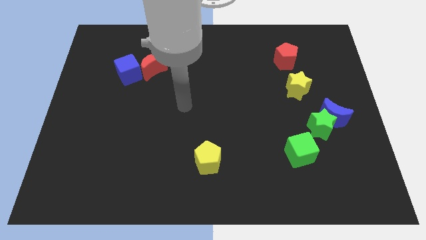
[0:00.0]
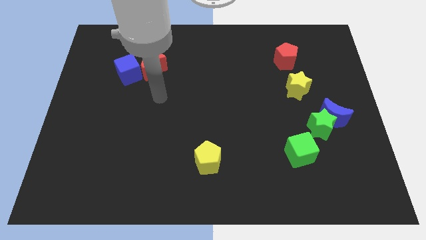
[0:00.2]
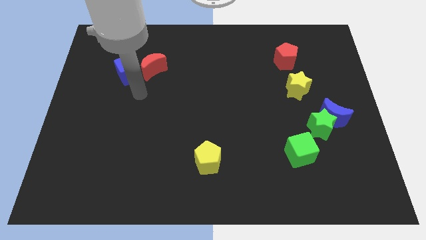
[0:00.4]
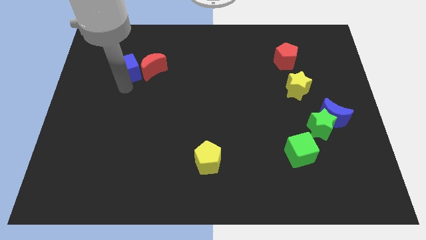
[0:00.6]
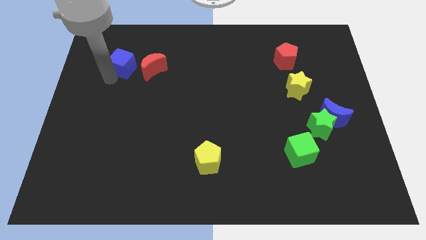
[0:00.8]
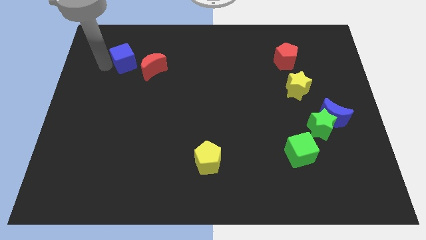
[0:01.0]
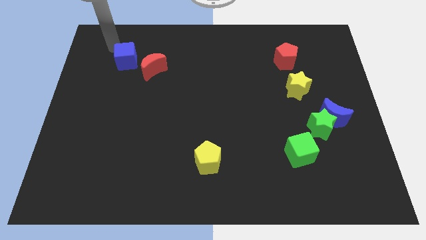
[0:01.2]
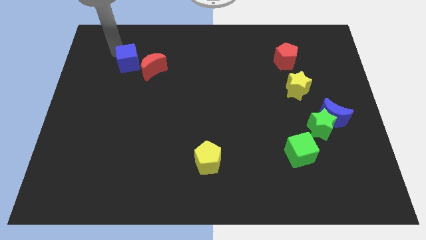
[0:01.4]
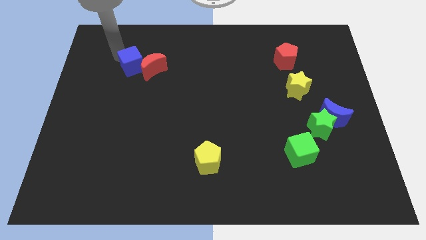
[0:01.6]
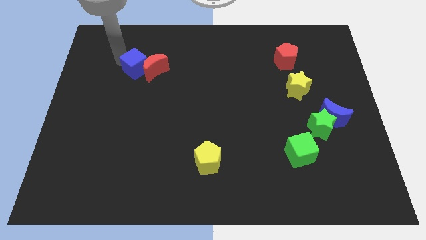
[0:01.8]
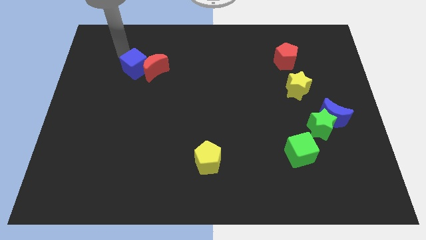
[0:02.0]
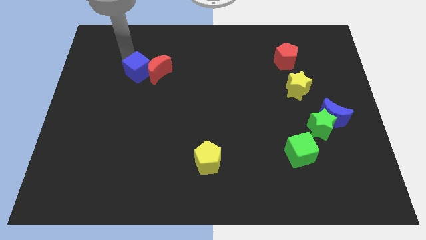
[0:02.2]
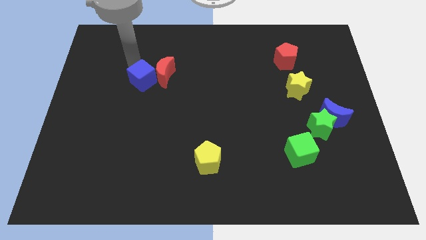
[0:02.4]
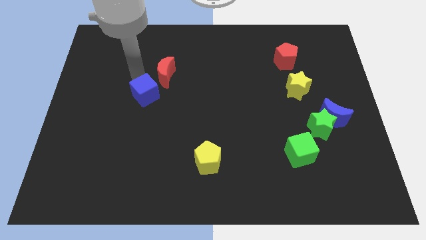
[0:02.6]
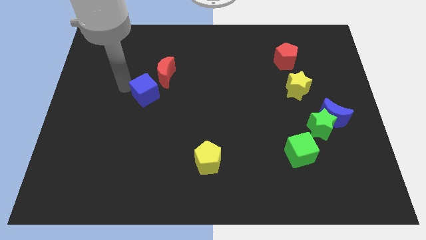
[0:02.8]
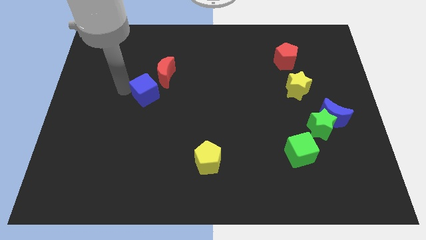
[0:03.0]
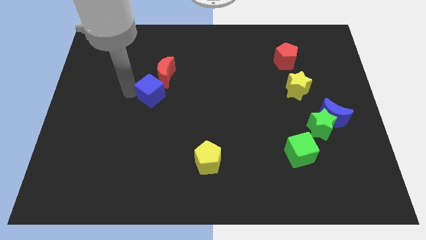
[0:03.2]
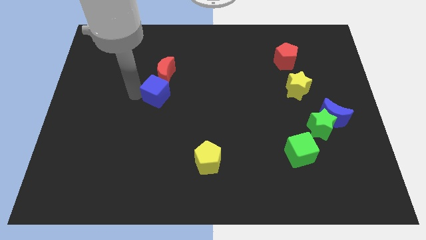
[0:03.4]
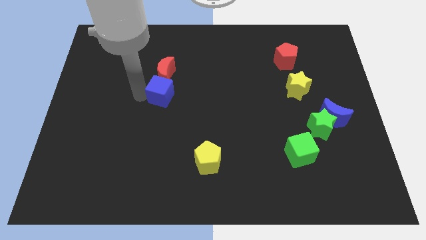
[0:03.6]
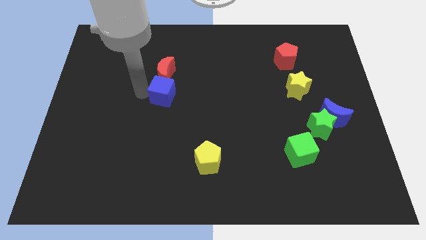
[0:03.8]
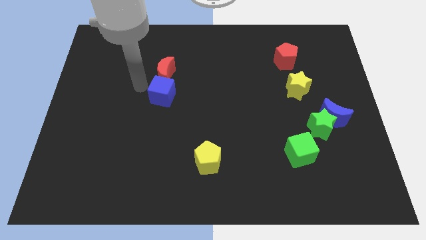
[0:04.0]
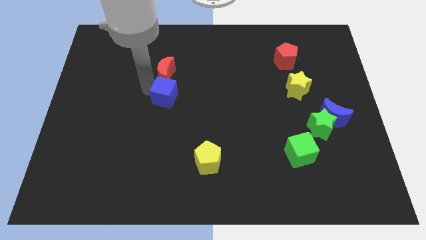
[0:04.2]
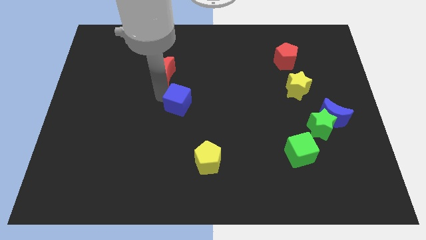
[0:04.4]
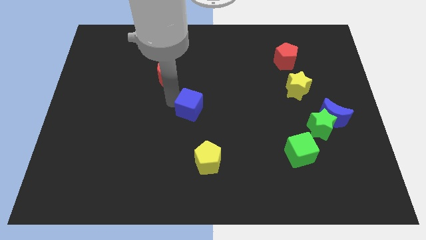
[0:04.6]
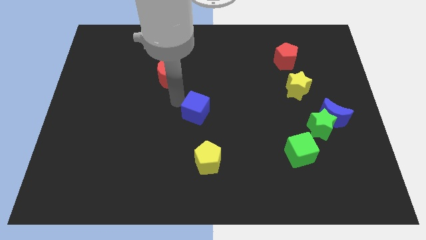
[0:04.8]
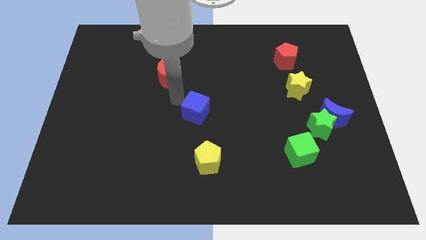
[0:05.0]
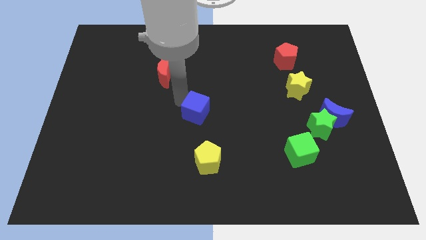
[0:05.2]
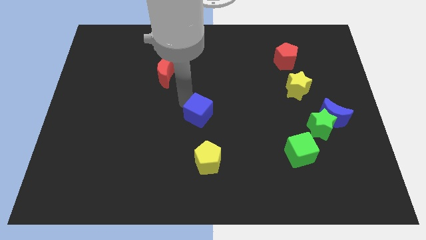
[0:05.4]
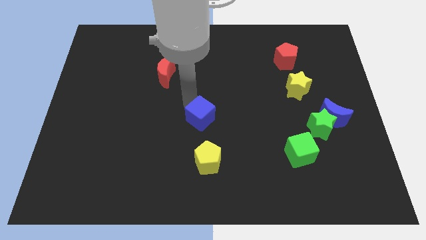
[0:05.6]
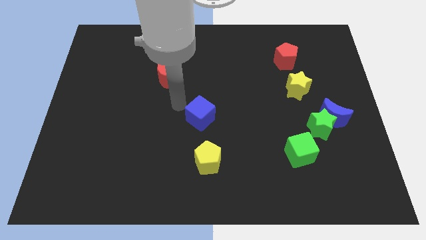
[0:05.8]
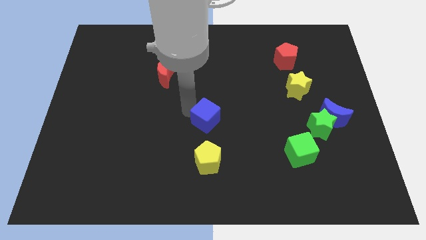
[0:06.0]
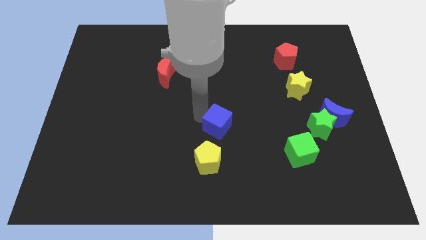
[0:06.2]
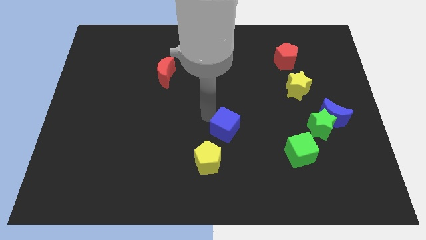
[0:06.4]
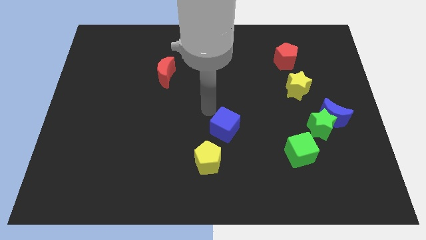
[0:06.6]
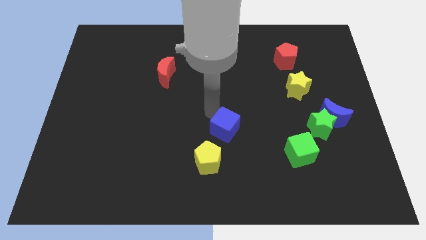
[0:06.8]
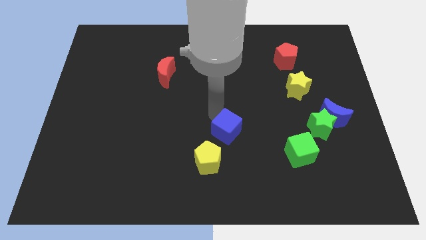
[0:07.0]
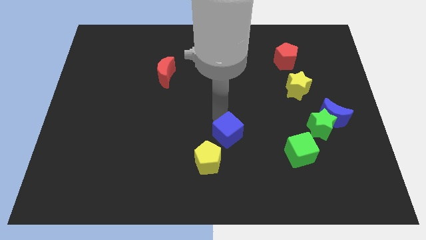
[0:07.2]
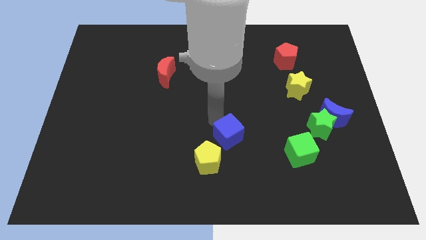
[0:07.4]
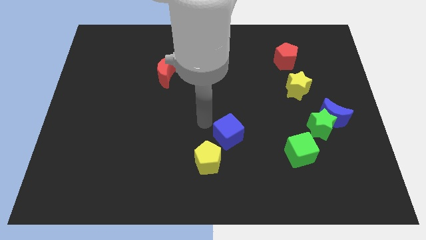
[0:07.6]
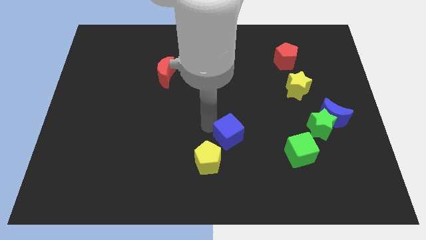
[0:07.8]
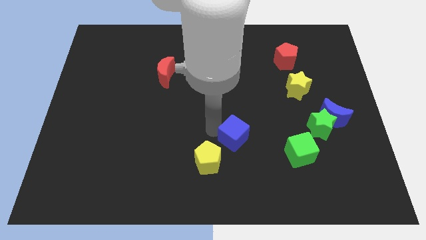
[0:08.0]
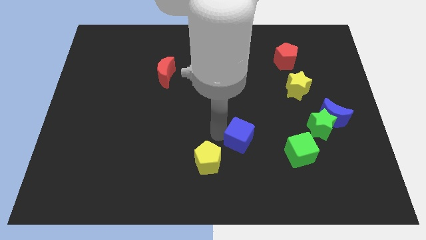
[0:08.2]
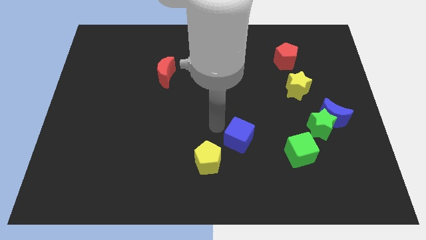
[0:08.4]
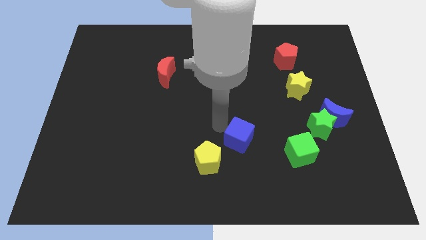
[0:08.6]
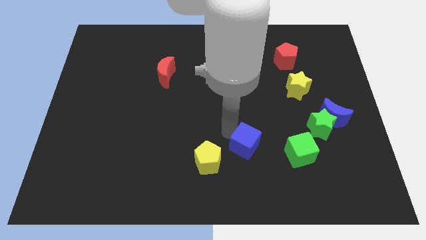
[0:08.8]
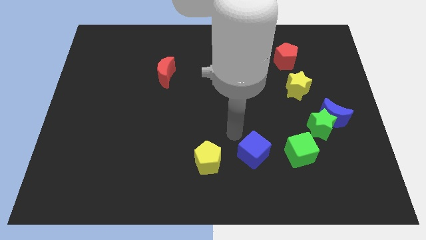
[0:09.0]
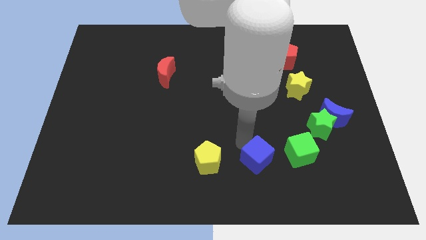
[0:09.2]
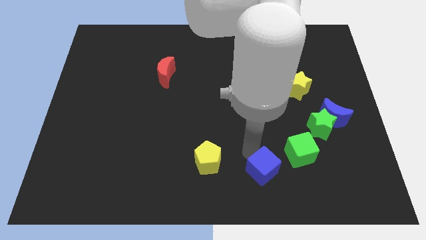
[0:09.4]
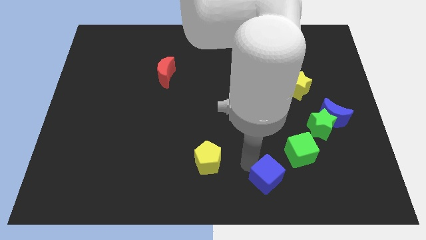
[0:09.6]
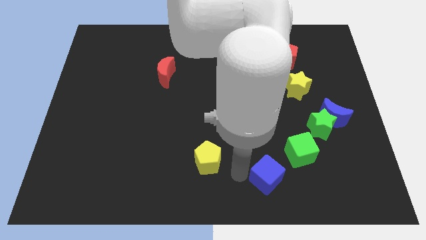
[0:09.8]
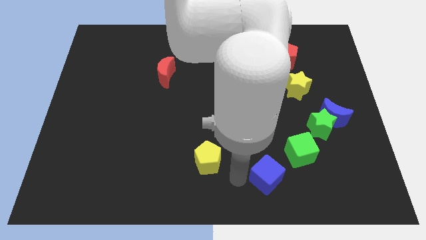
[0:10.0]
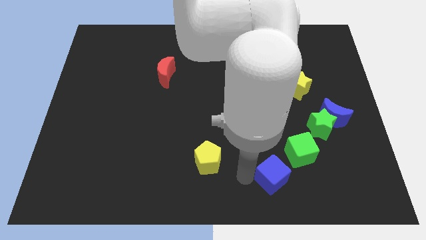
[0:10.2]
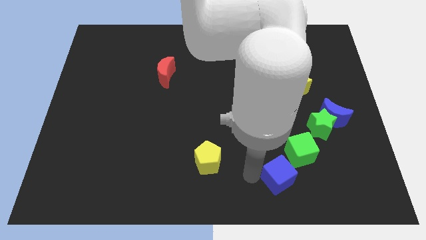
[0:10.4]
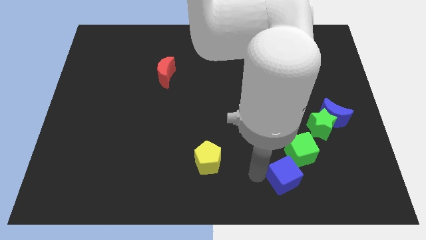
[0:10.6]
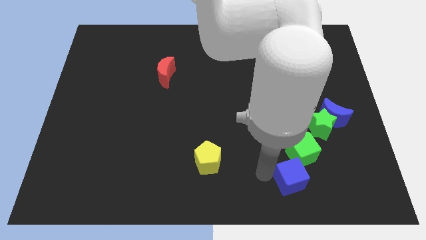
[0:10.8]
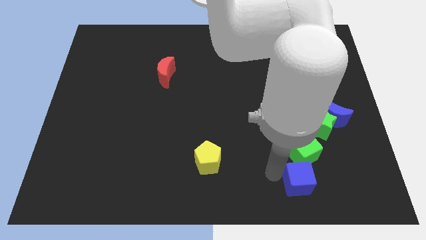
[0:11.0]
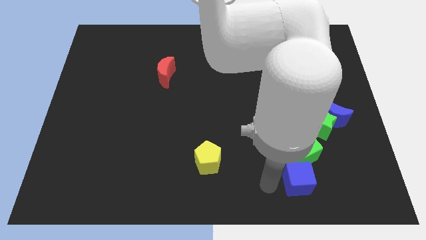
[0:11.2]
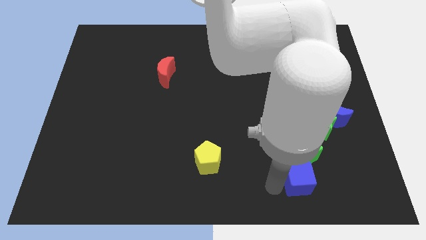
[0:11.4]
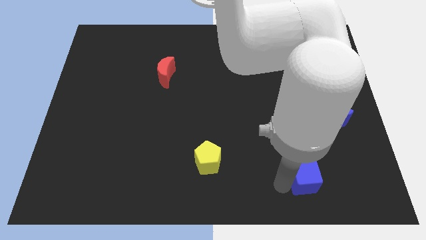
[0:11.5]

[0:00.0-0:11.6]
move the blue cube to the bottom right of the green cube

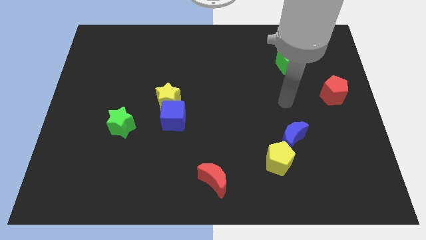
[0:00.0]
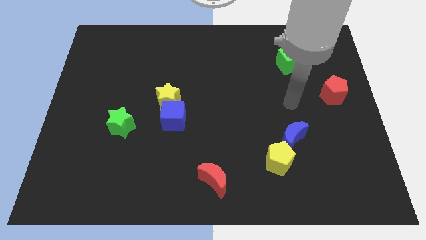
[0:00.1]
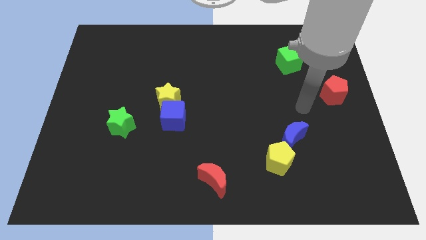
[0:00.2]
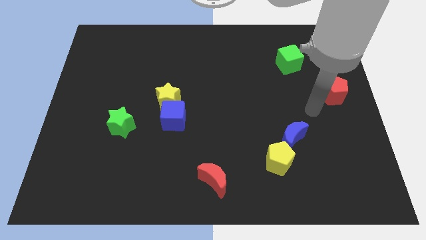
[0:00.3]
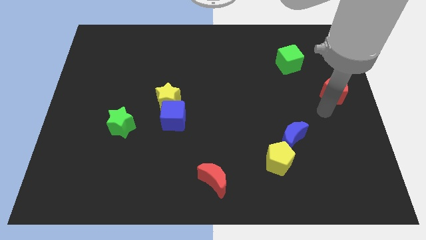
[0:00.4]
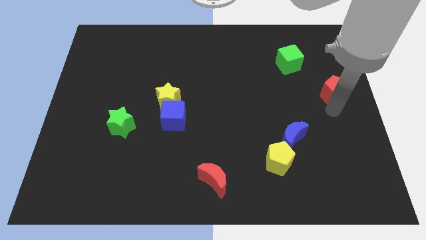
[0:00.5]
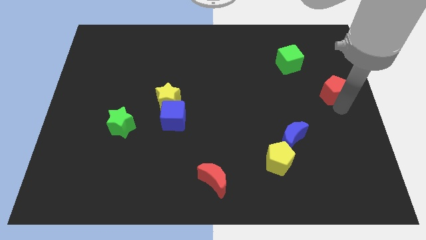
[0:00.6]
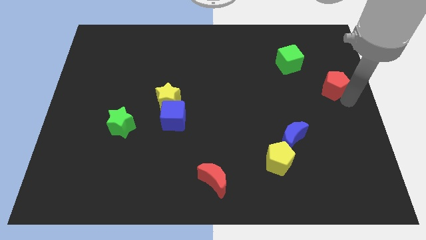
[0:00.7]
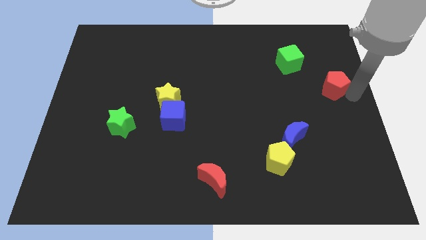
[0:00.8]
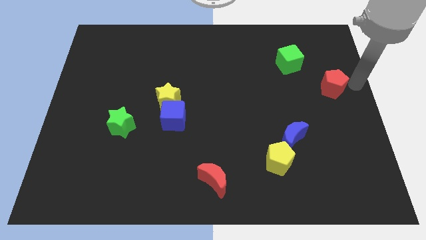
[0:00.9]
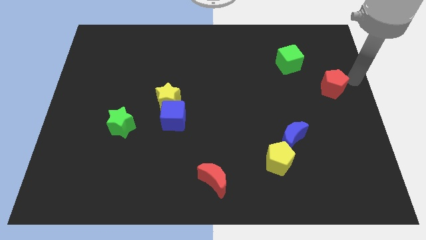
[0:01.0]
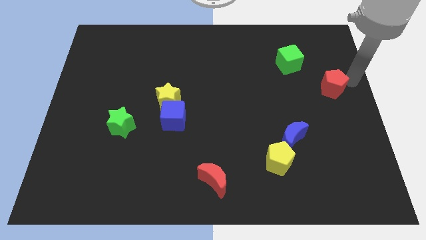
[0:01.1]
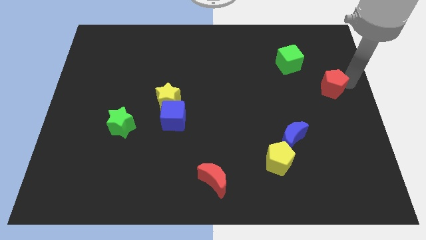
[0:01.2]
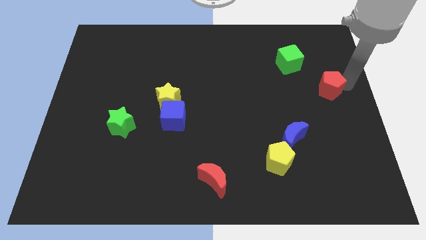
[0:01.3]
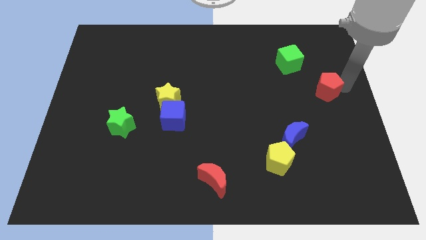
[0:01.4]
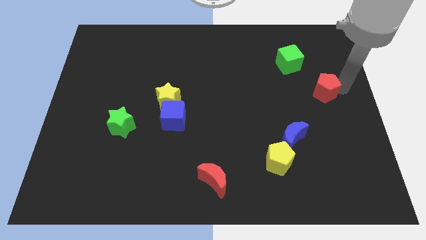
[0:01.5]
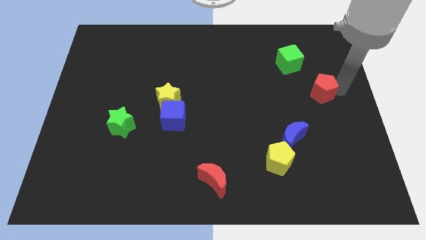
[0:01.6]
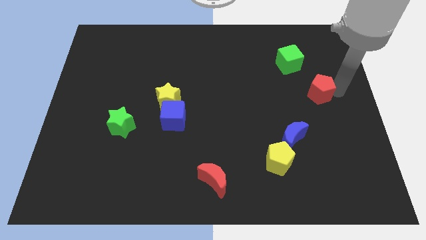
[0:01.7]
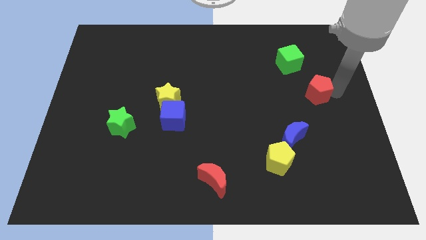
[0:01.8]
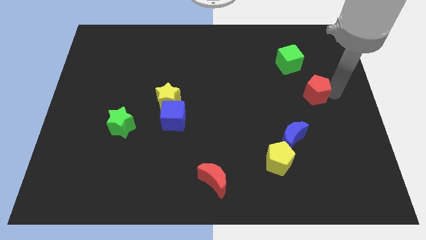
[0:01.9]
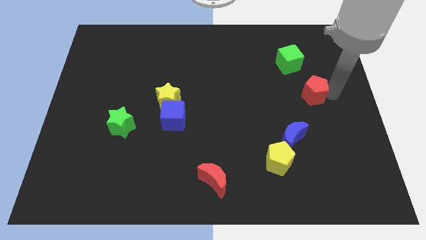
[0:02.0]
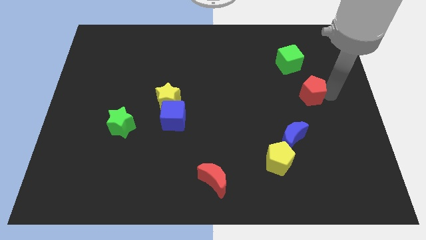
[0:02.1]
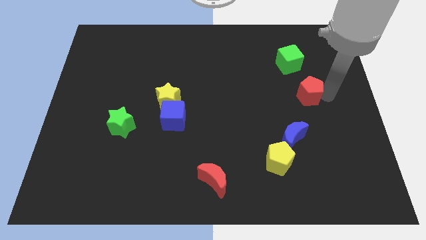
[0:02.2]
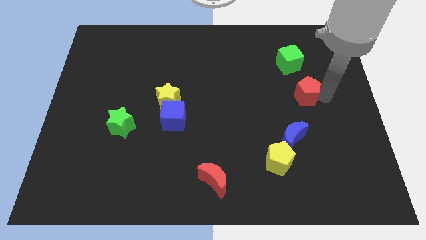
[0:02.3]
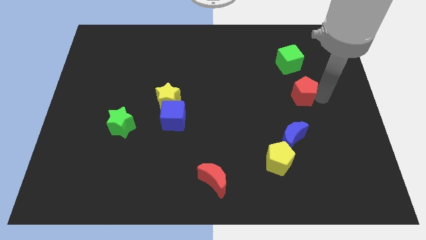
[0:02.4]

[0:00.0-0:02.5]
move the red pentagon to the top of the blue moon
